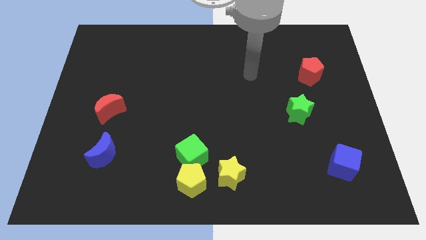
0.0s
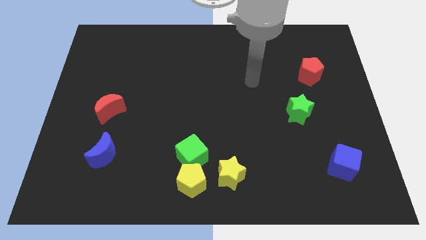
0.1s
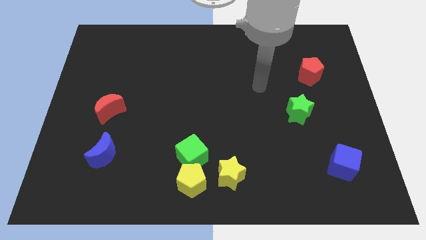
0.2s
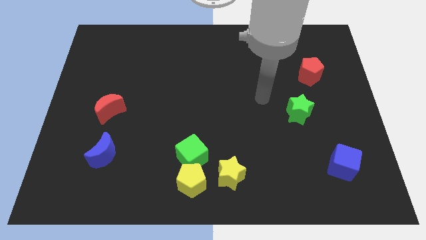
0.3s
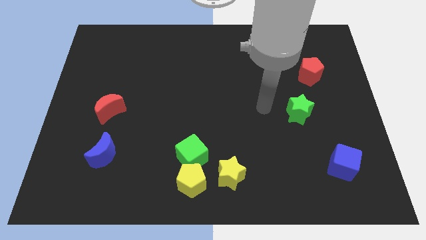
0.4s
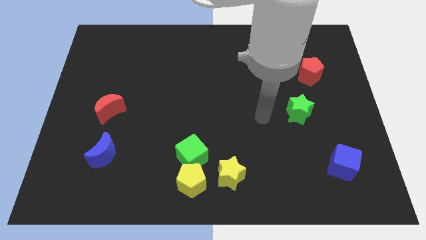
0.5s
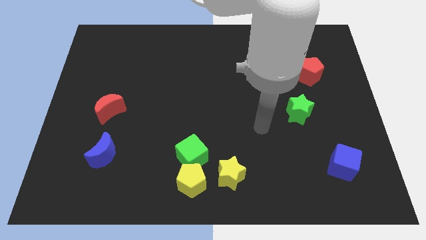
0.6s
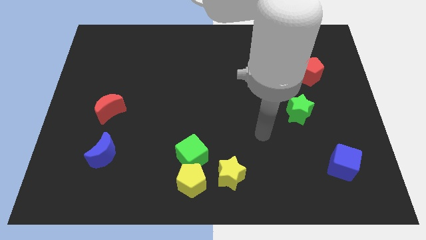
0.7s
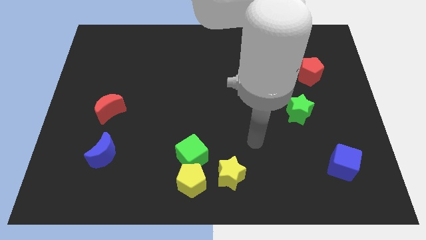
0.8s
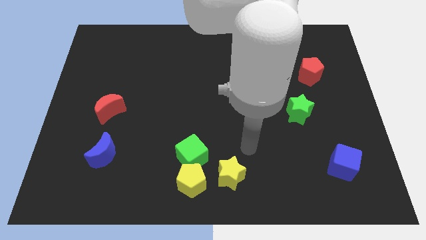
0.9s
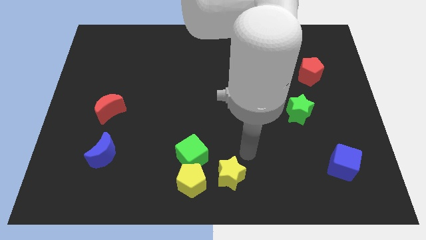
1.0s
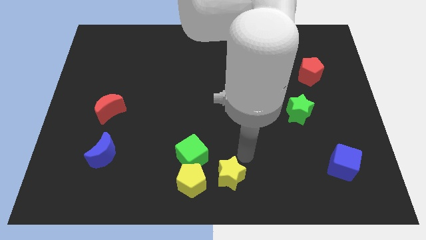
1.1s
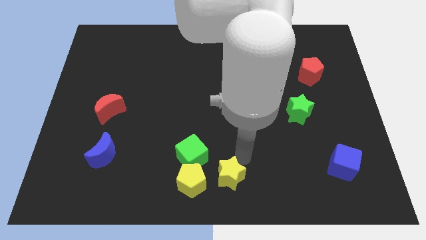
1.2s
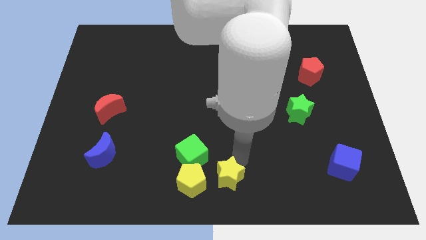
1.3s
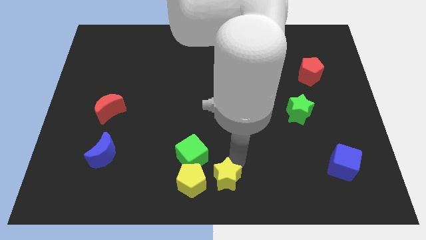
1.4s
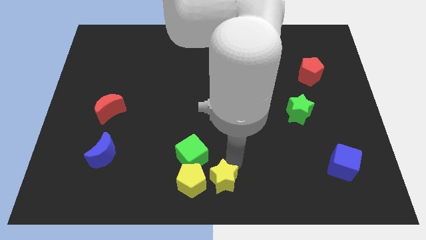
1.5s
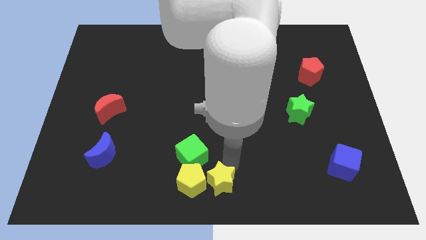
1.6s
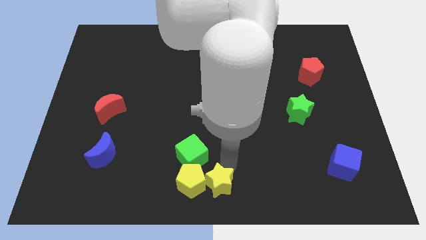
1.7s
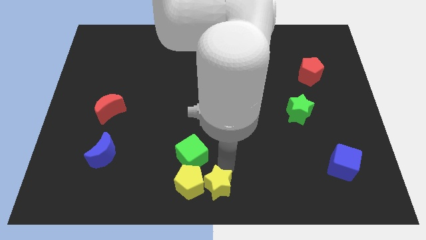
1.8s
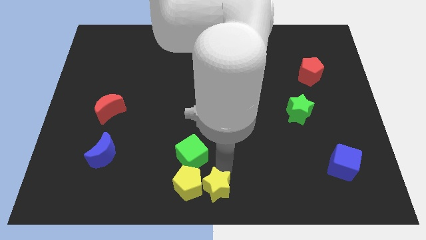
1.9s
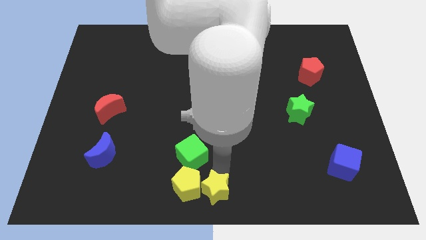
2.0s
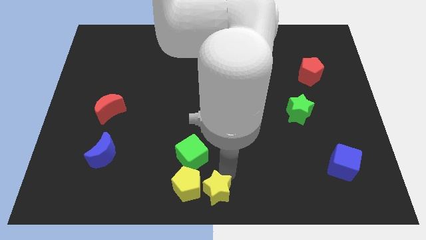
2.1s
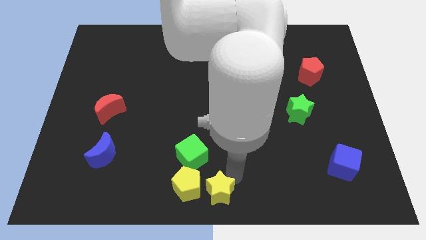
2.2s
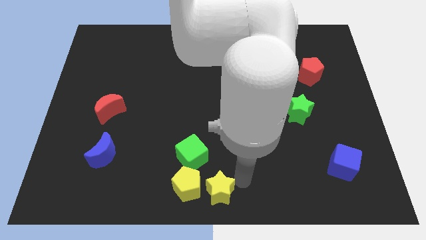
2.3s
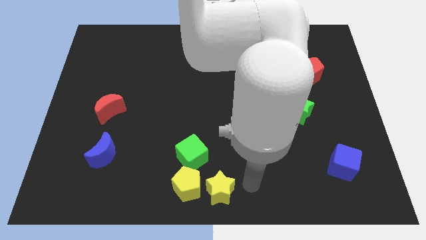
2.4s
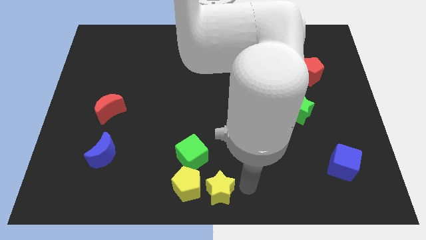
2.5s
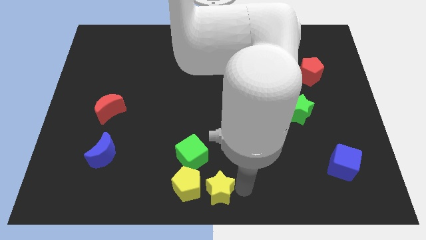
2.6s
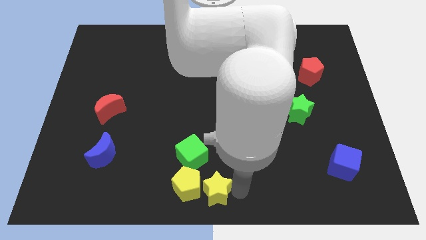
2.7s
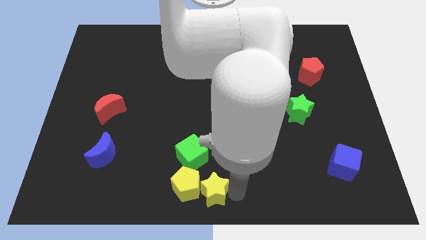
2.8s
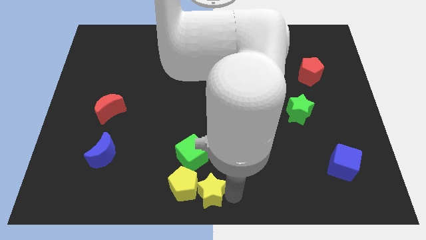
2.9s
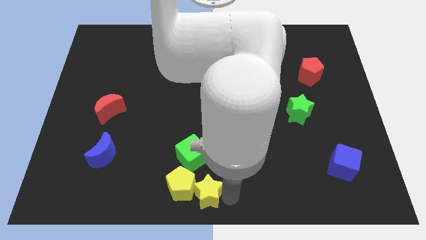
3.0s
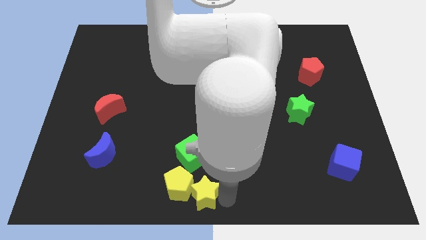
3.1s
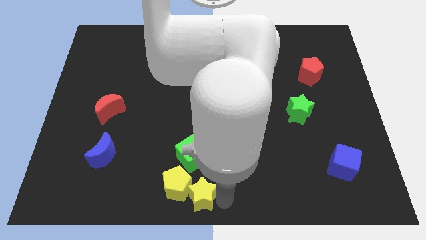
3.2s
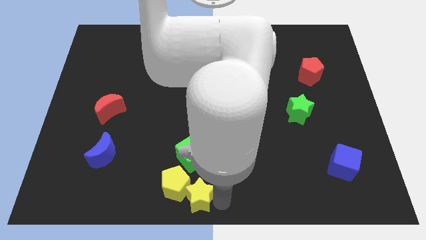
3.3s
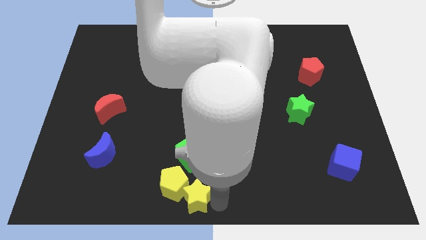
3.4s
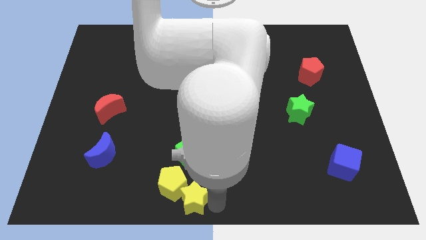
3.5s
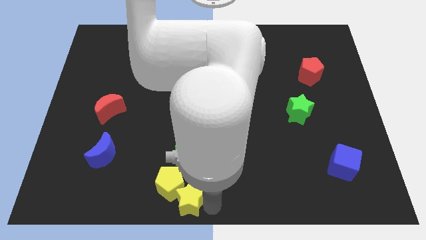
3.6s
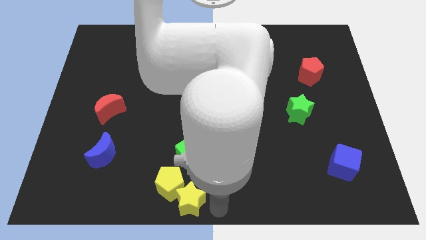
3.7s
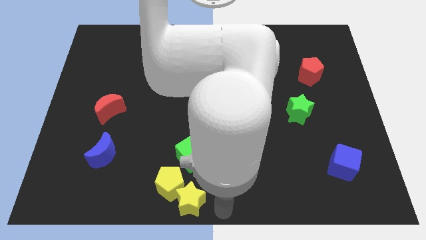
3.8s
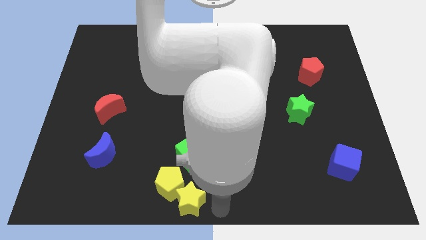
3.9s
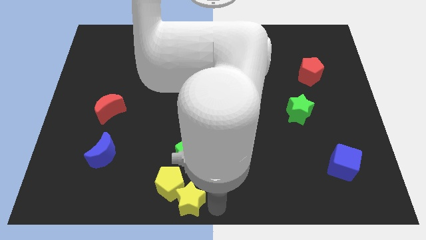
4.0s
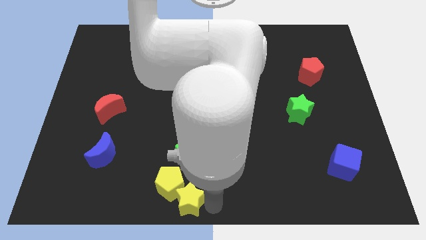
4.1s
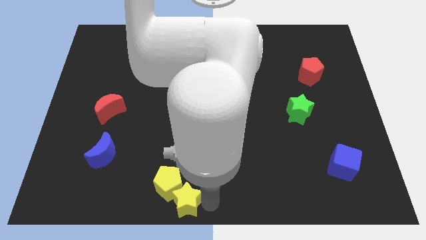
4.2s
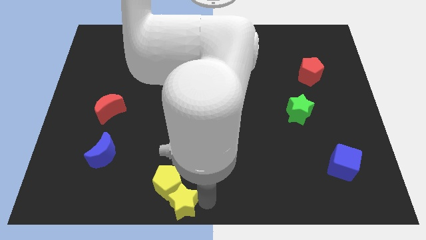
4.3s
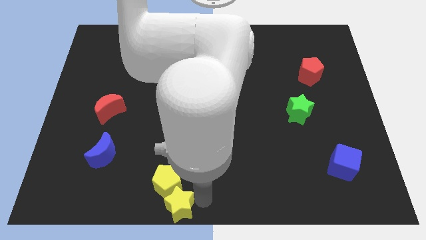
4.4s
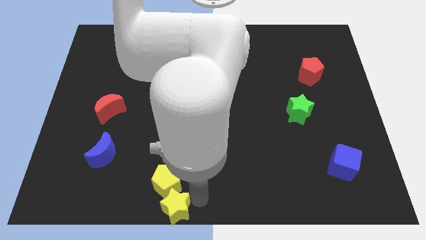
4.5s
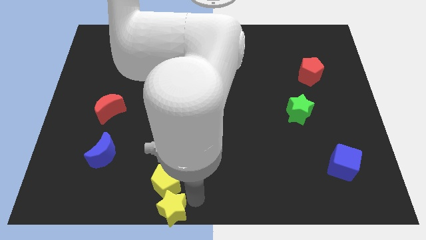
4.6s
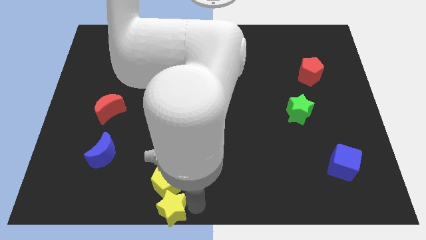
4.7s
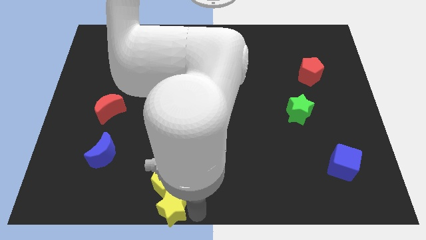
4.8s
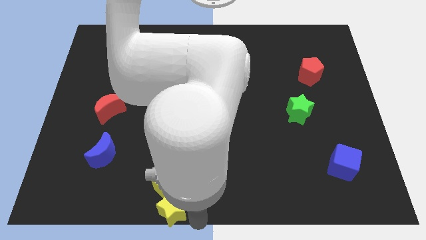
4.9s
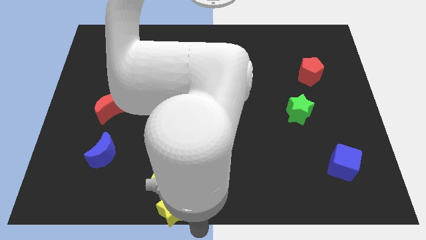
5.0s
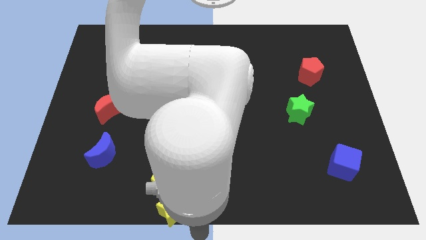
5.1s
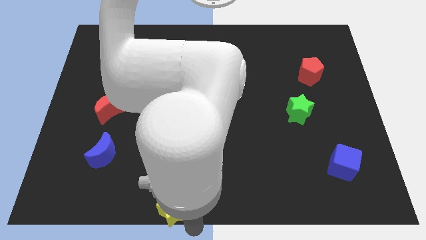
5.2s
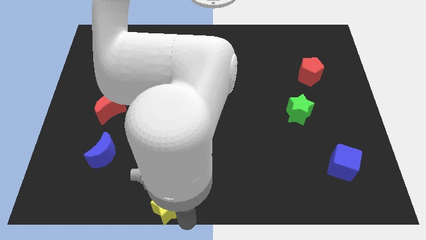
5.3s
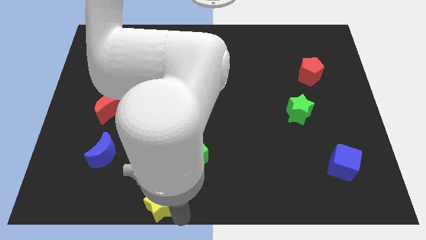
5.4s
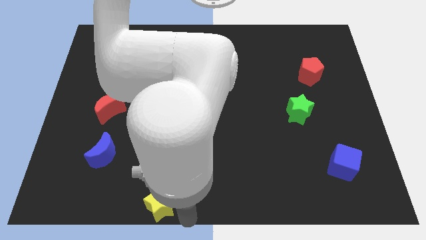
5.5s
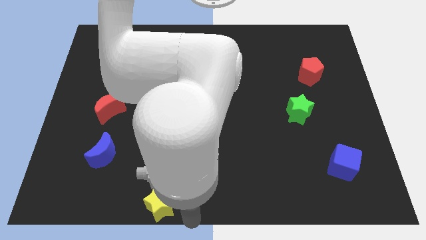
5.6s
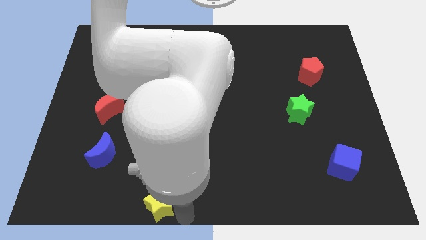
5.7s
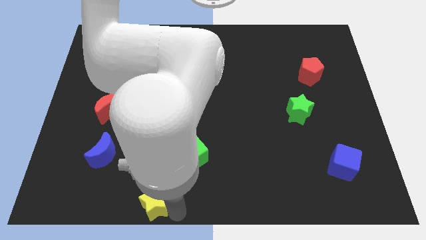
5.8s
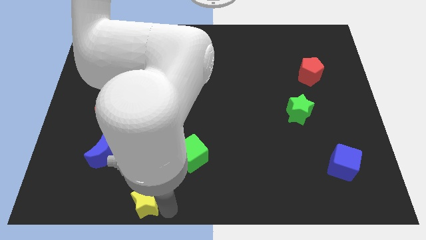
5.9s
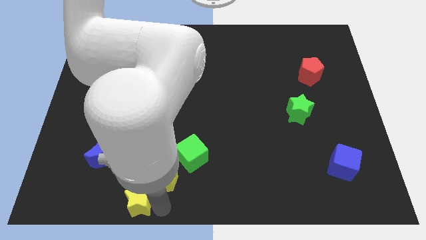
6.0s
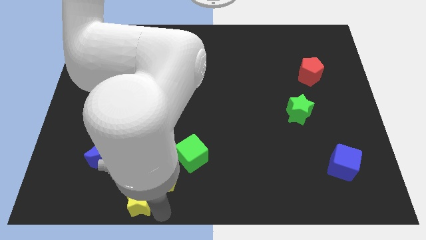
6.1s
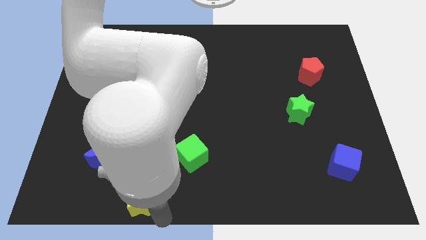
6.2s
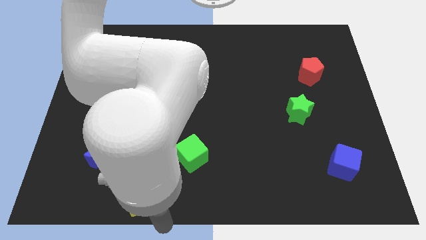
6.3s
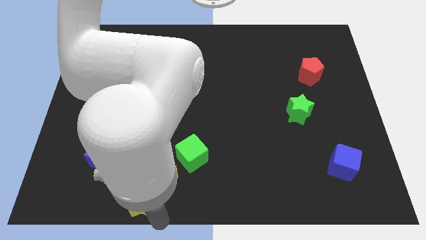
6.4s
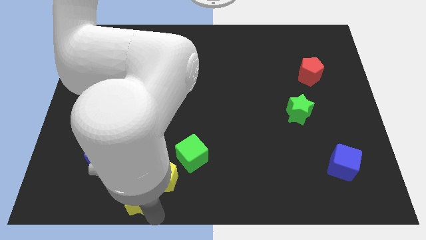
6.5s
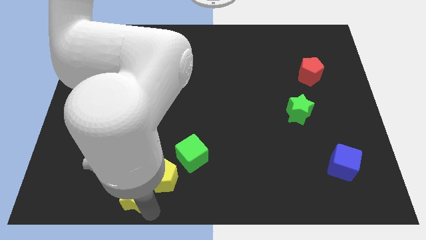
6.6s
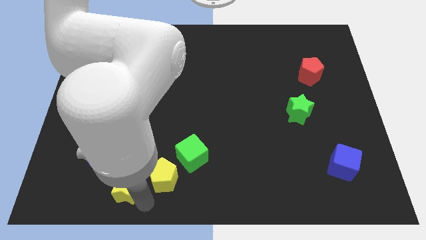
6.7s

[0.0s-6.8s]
slide the yellow star left

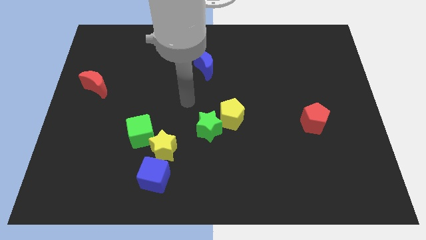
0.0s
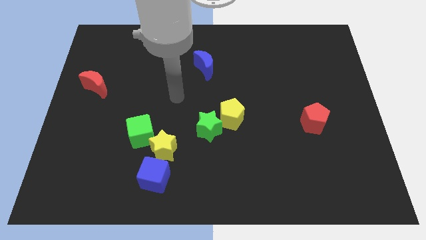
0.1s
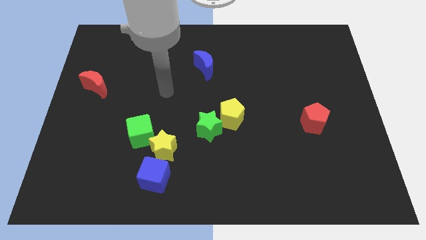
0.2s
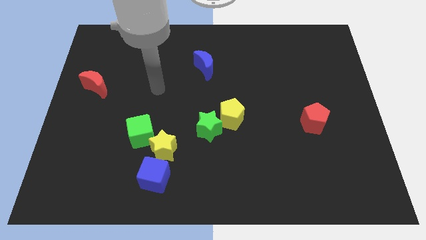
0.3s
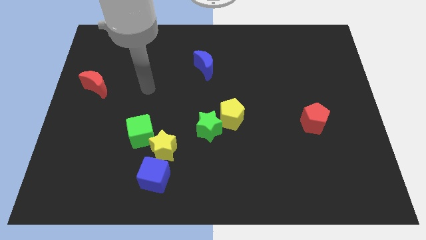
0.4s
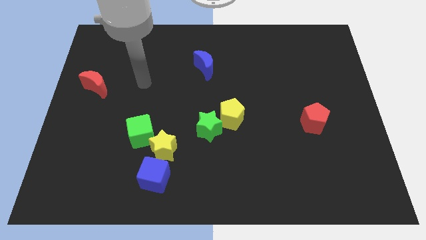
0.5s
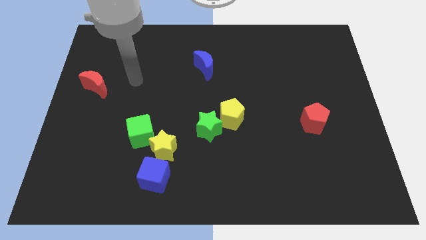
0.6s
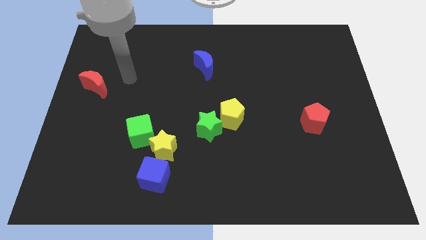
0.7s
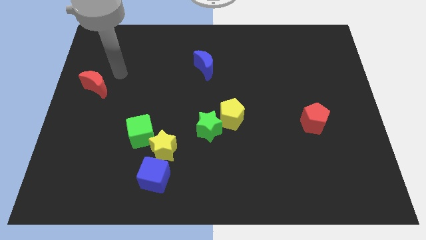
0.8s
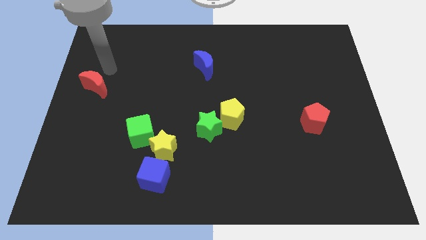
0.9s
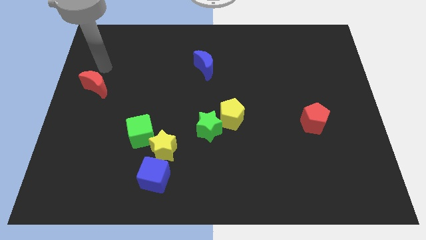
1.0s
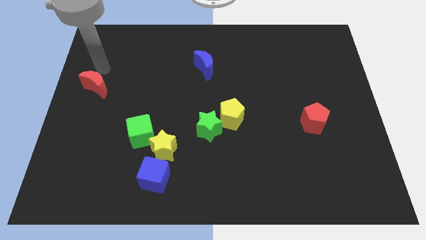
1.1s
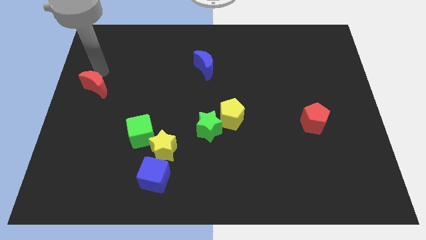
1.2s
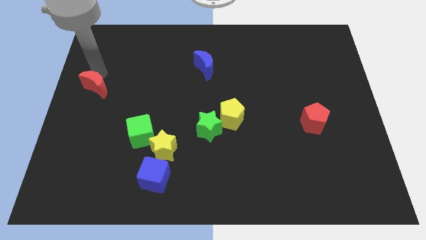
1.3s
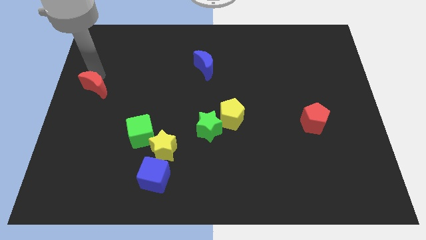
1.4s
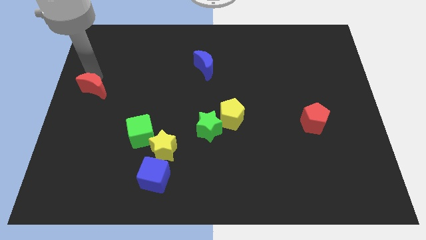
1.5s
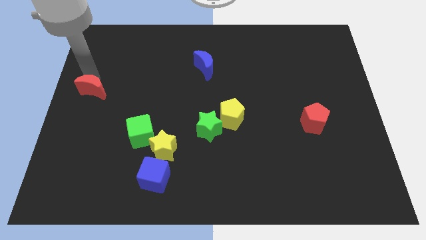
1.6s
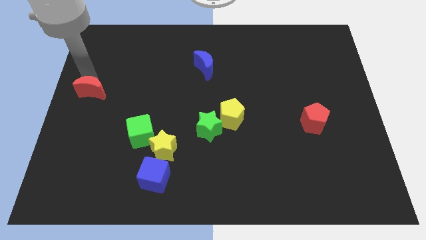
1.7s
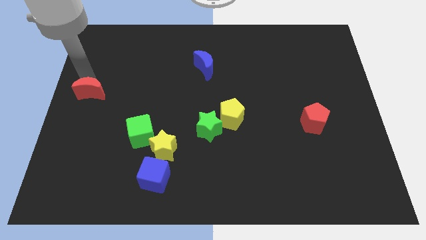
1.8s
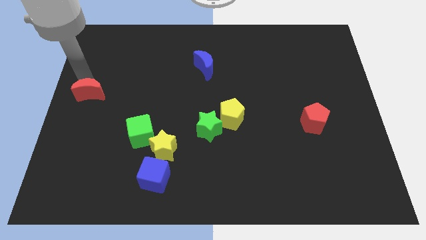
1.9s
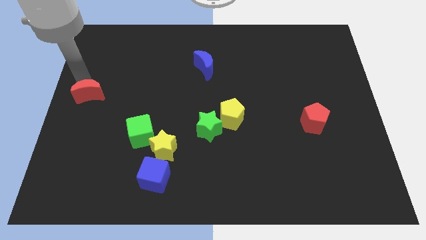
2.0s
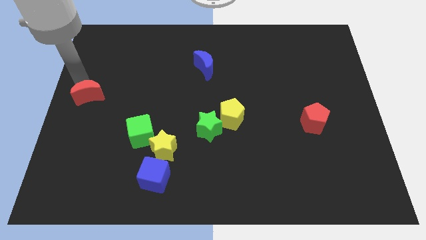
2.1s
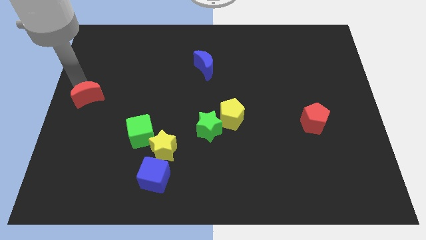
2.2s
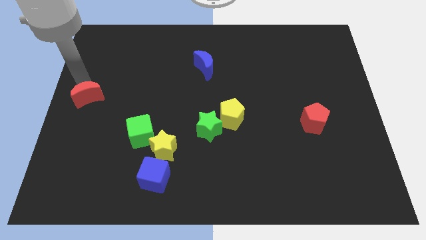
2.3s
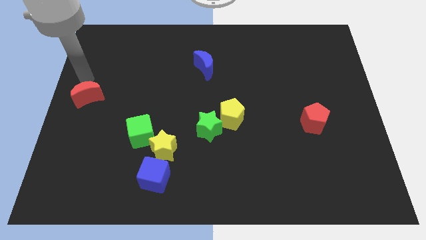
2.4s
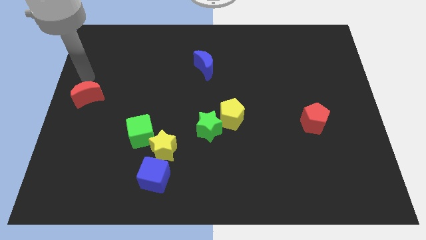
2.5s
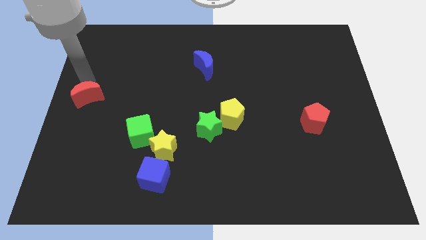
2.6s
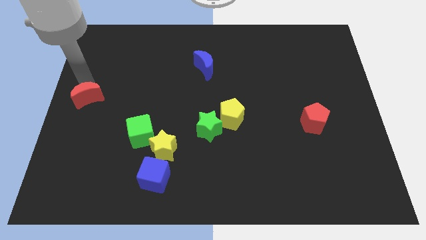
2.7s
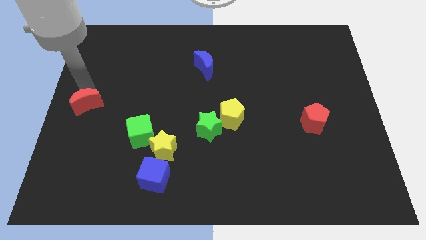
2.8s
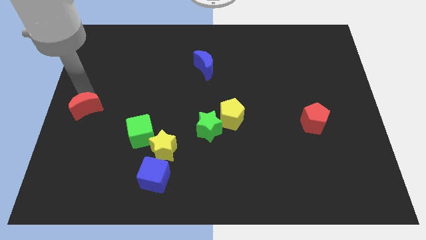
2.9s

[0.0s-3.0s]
slide the red moon a bit downwards
